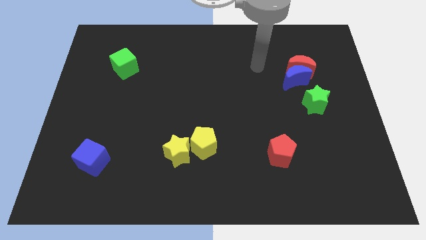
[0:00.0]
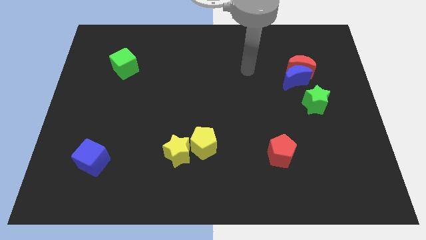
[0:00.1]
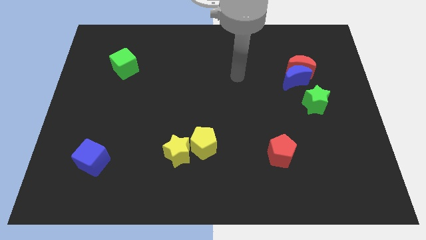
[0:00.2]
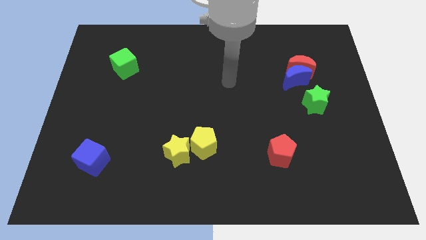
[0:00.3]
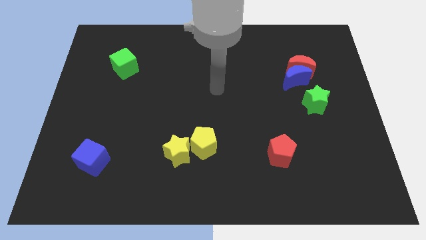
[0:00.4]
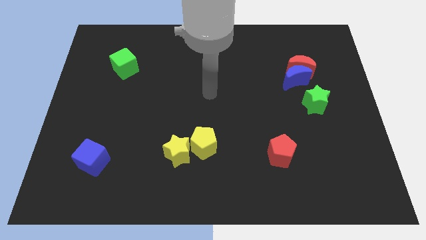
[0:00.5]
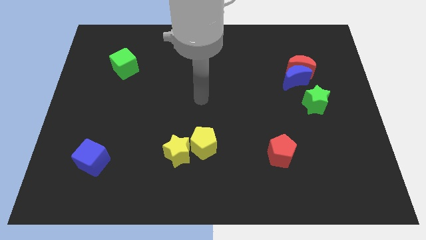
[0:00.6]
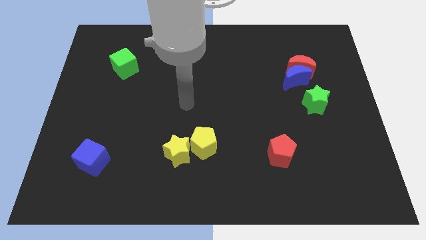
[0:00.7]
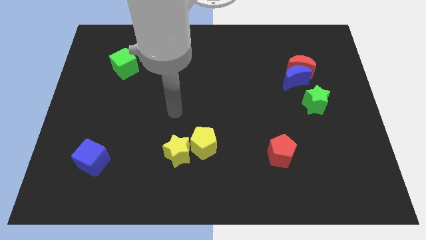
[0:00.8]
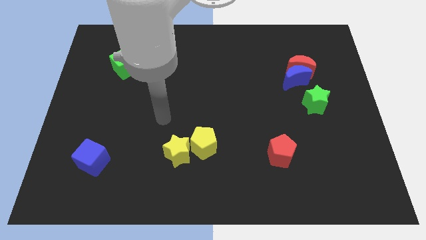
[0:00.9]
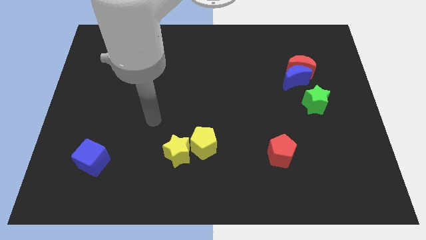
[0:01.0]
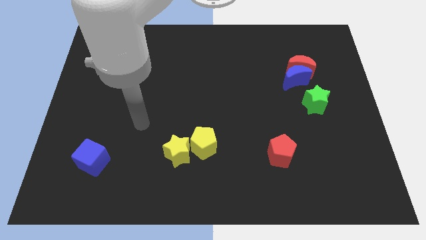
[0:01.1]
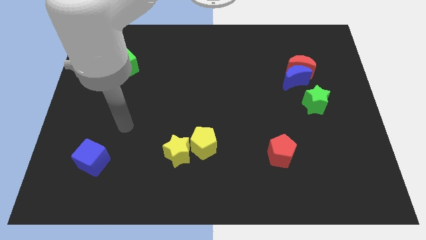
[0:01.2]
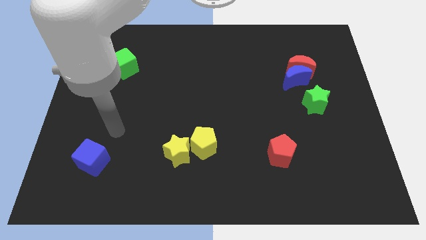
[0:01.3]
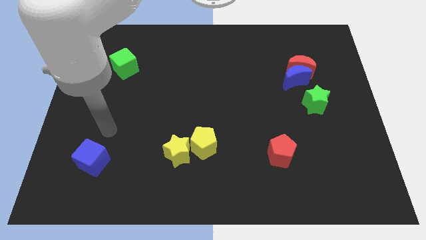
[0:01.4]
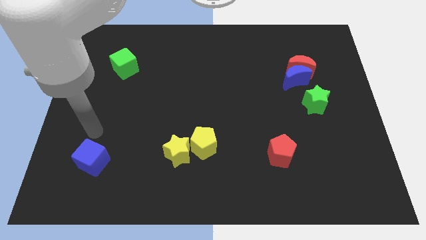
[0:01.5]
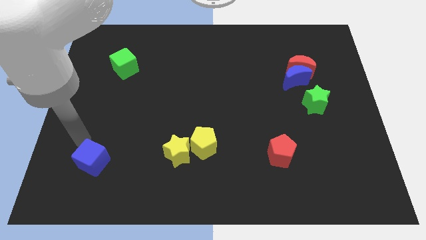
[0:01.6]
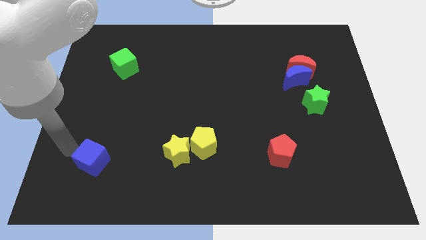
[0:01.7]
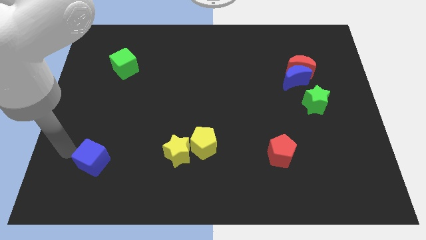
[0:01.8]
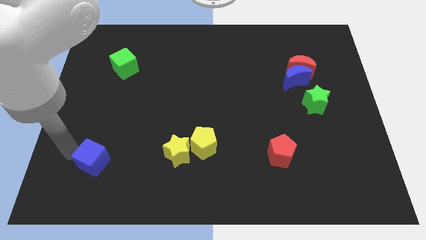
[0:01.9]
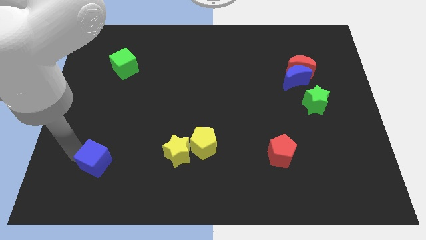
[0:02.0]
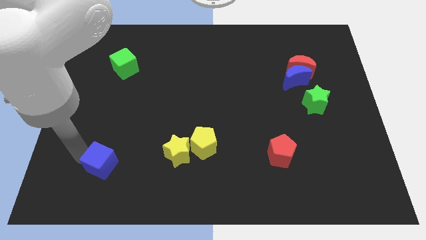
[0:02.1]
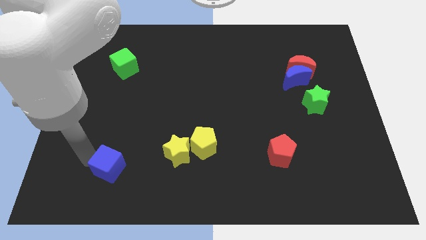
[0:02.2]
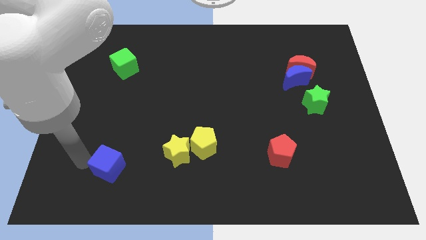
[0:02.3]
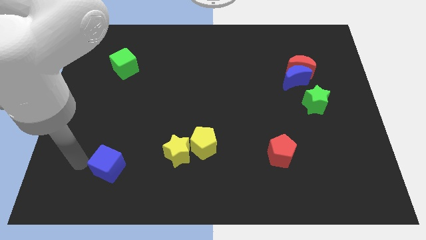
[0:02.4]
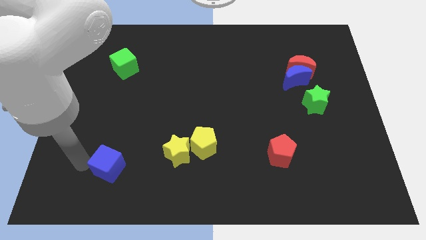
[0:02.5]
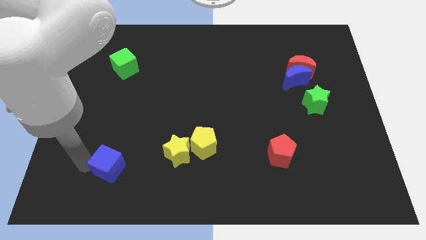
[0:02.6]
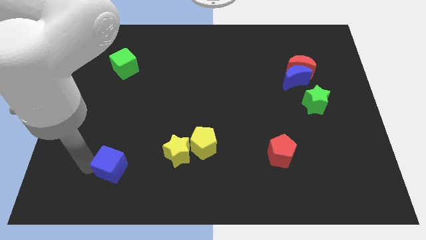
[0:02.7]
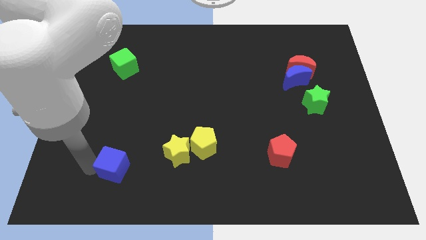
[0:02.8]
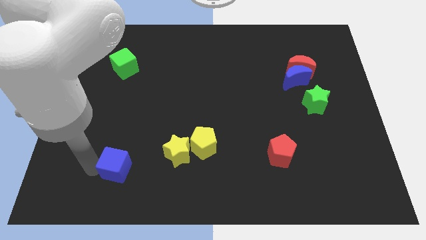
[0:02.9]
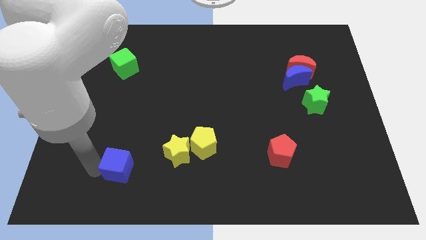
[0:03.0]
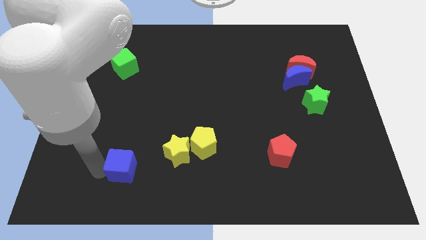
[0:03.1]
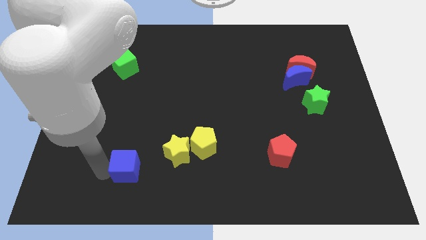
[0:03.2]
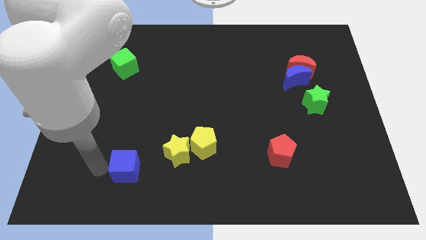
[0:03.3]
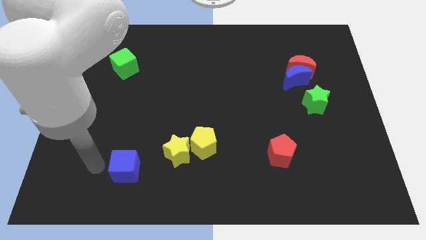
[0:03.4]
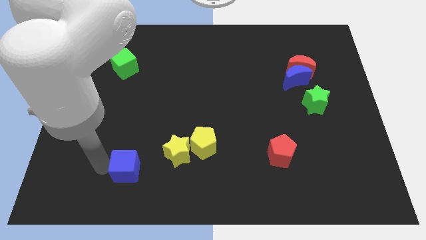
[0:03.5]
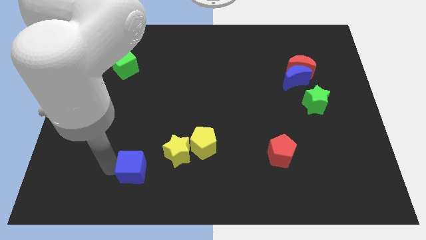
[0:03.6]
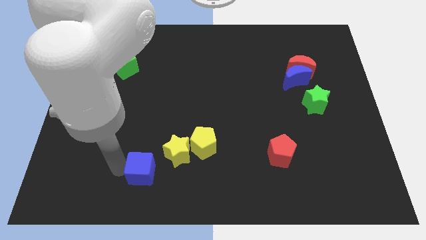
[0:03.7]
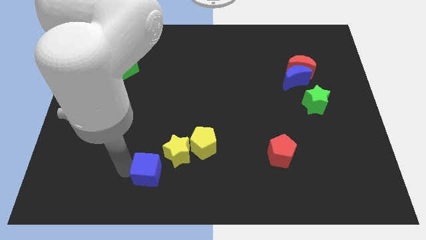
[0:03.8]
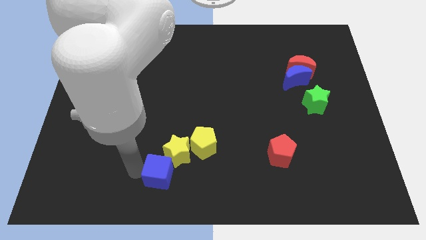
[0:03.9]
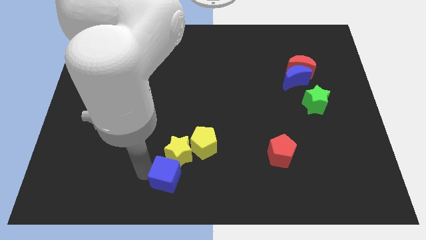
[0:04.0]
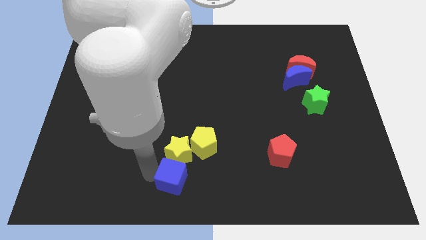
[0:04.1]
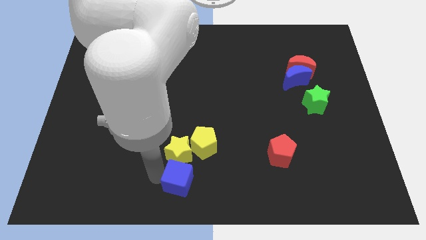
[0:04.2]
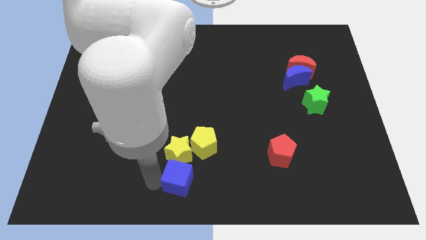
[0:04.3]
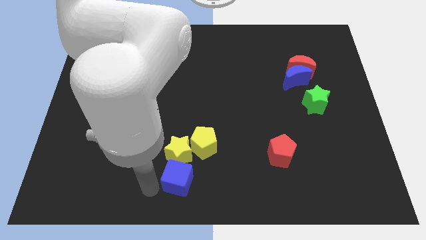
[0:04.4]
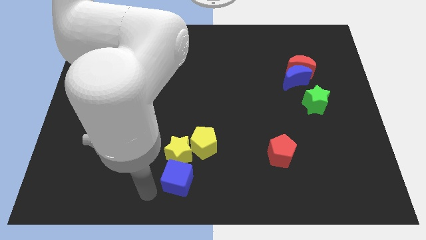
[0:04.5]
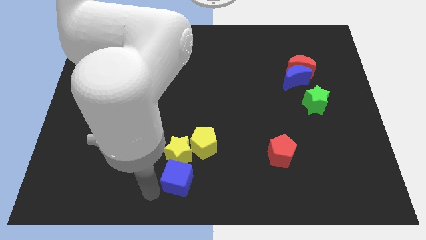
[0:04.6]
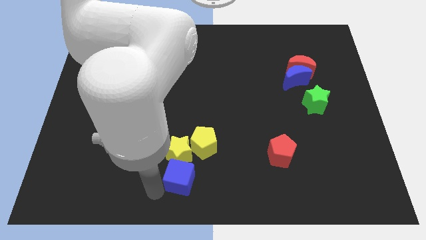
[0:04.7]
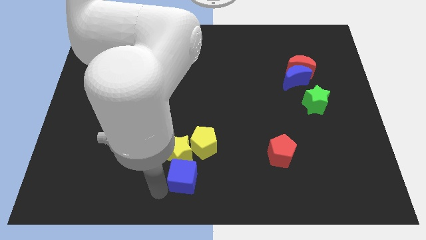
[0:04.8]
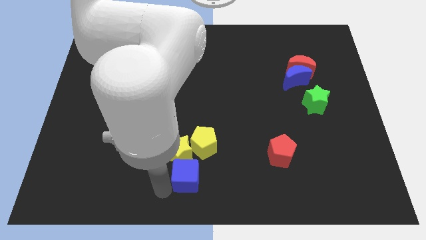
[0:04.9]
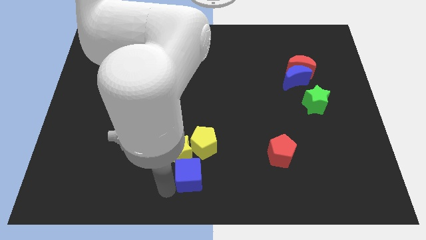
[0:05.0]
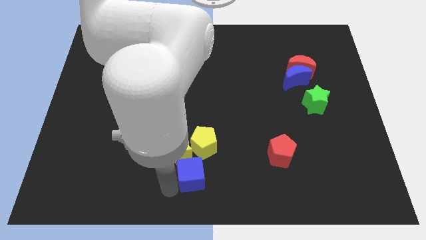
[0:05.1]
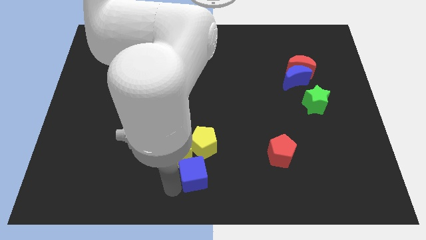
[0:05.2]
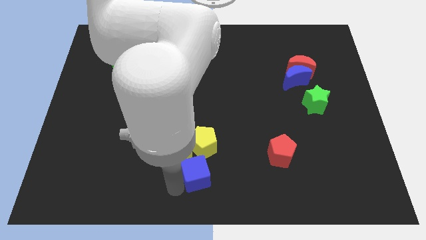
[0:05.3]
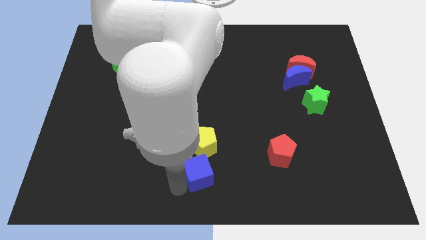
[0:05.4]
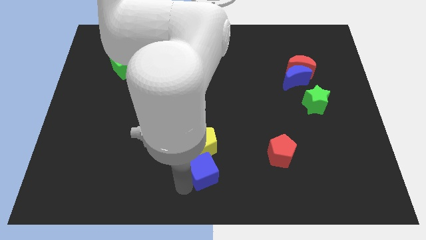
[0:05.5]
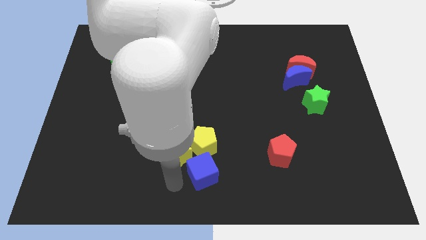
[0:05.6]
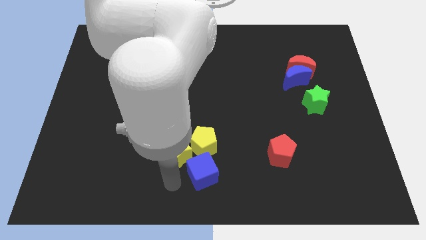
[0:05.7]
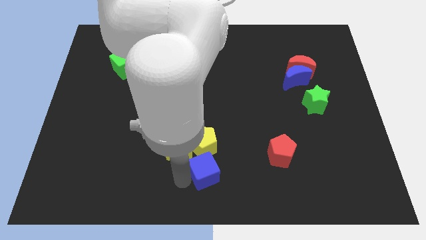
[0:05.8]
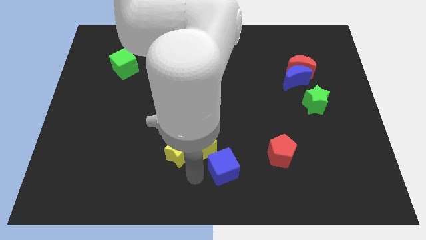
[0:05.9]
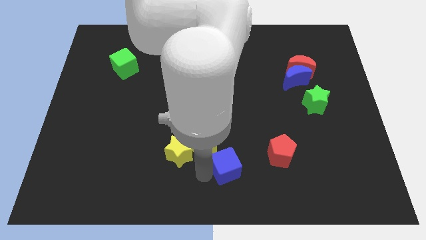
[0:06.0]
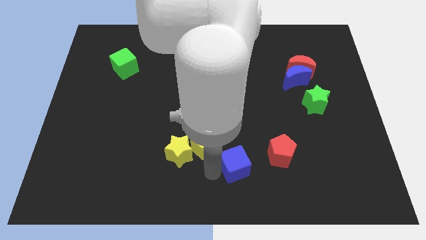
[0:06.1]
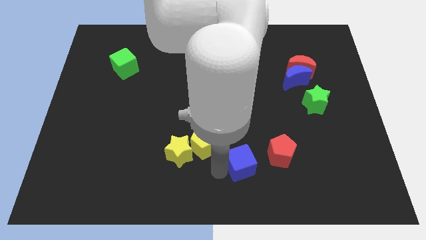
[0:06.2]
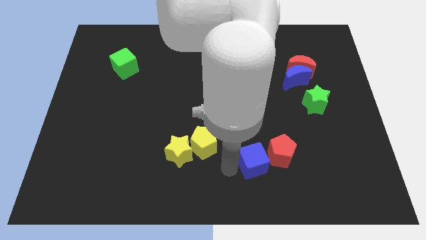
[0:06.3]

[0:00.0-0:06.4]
put the blue cube close to the red pentagon
